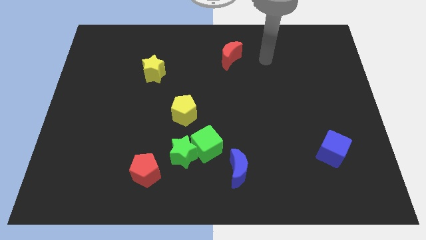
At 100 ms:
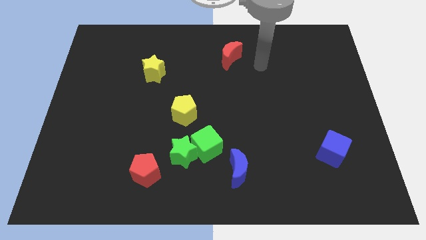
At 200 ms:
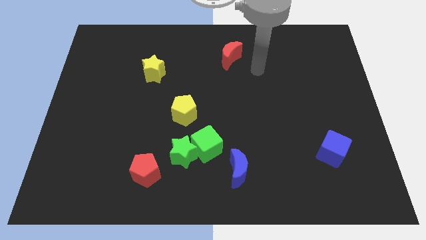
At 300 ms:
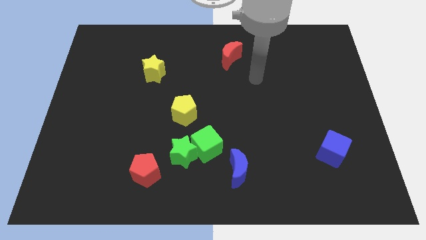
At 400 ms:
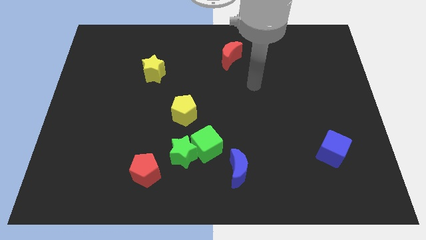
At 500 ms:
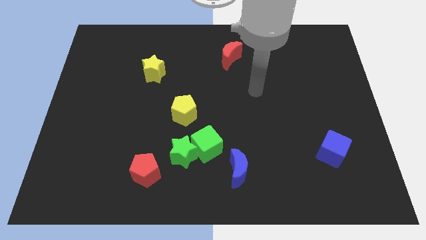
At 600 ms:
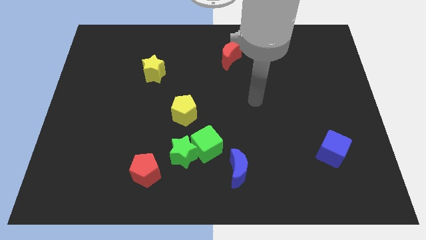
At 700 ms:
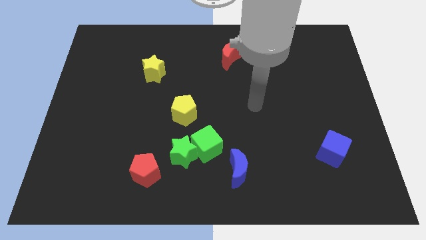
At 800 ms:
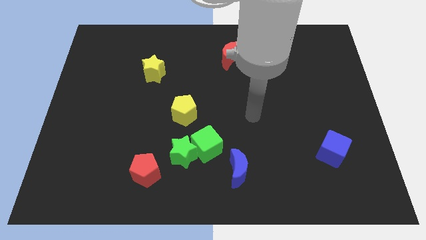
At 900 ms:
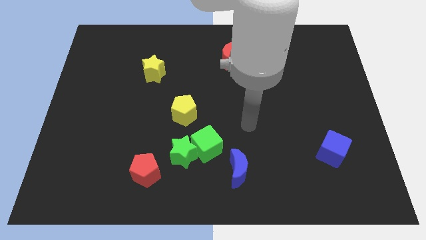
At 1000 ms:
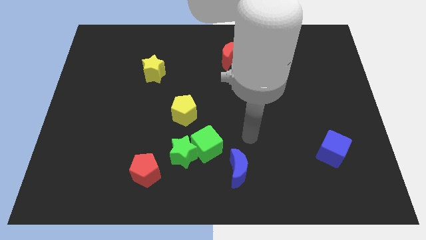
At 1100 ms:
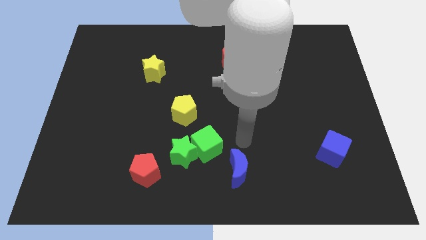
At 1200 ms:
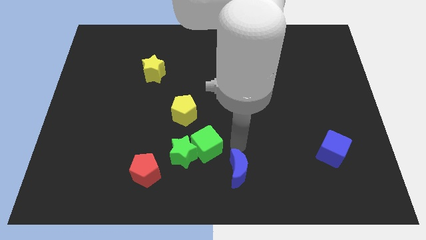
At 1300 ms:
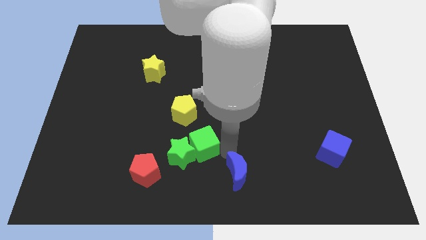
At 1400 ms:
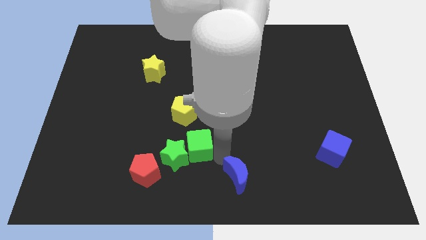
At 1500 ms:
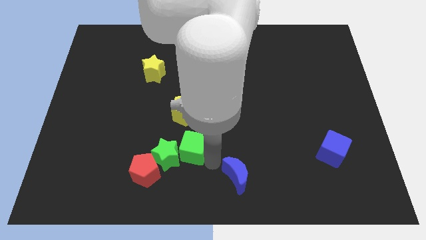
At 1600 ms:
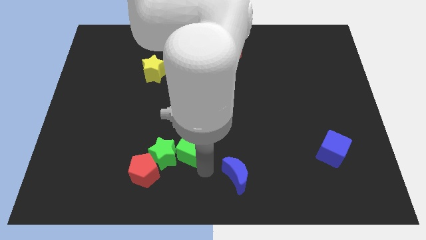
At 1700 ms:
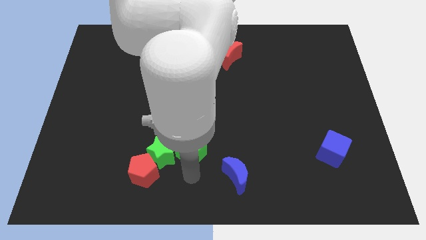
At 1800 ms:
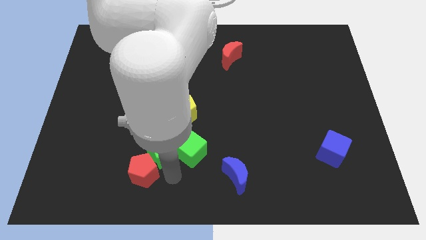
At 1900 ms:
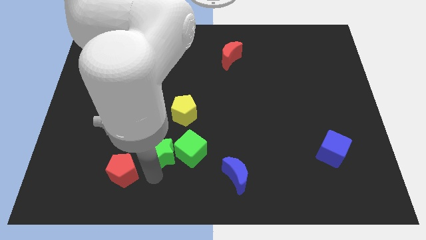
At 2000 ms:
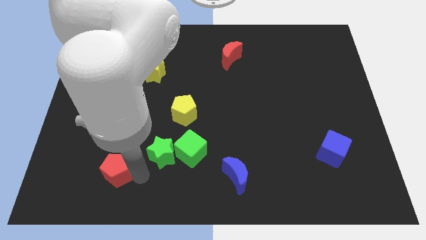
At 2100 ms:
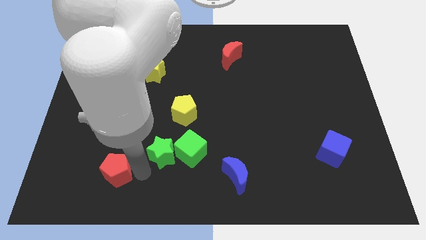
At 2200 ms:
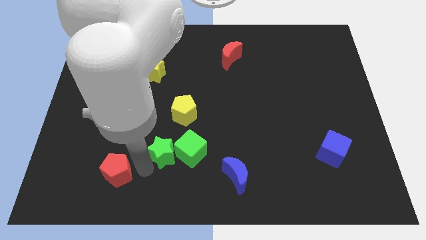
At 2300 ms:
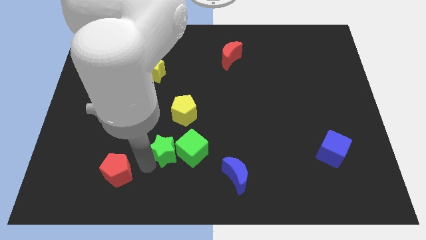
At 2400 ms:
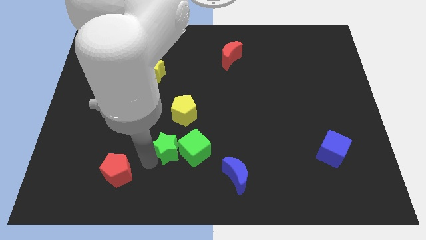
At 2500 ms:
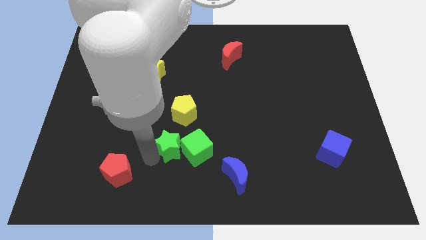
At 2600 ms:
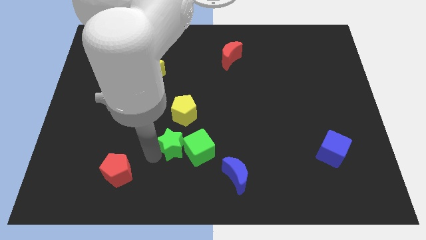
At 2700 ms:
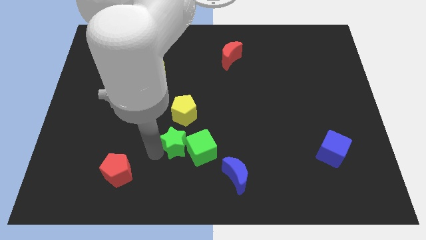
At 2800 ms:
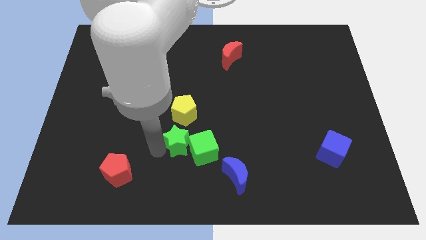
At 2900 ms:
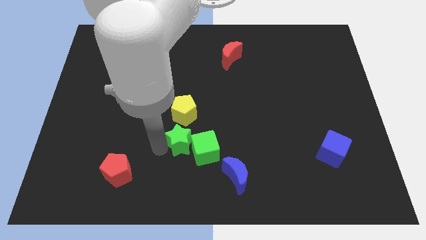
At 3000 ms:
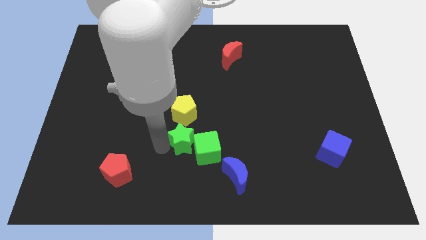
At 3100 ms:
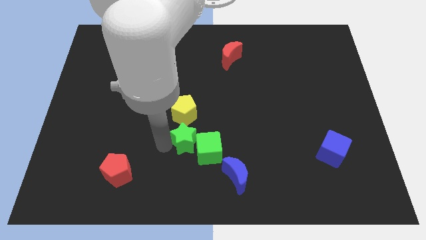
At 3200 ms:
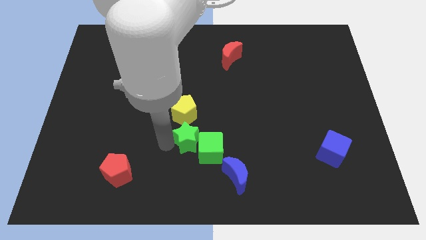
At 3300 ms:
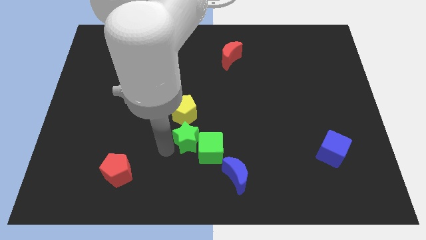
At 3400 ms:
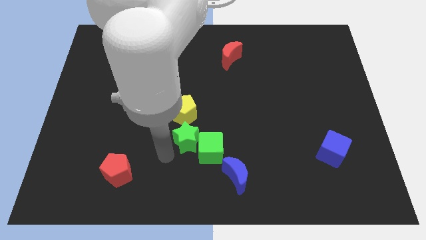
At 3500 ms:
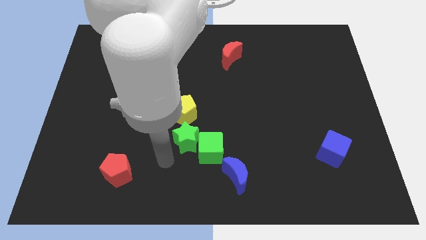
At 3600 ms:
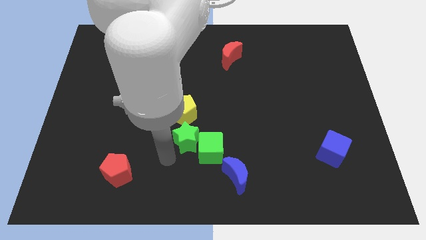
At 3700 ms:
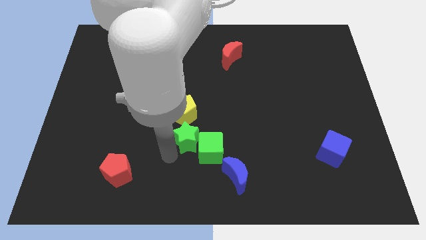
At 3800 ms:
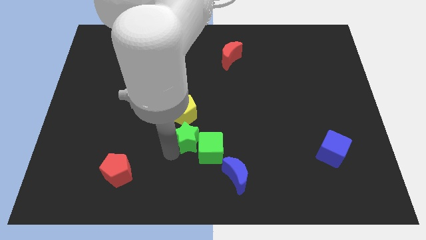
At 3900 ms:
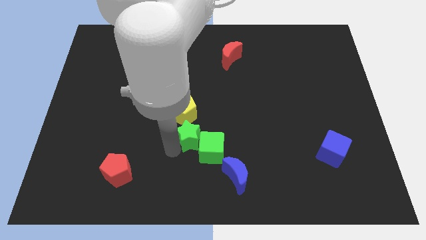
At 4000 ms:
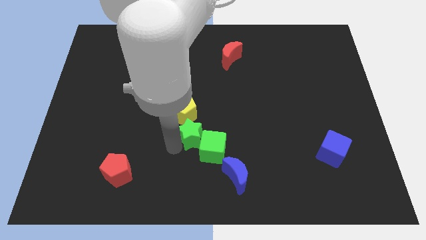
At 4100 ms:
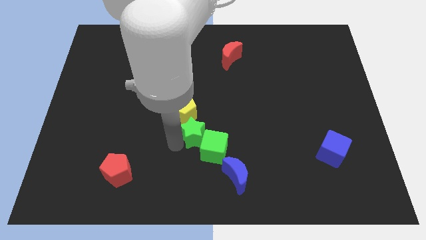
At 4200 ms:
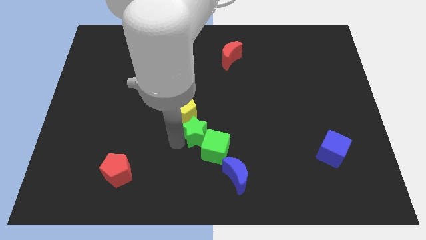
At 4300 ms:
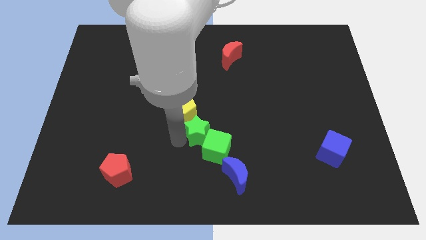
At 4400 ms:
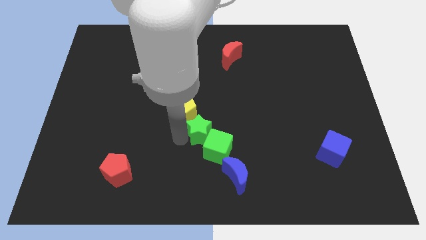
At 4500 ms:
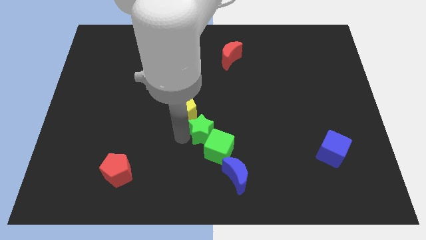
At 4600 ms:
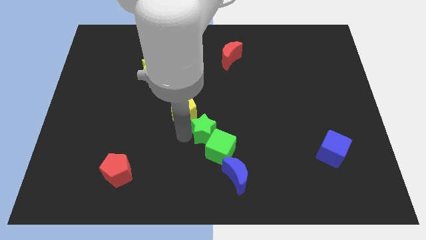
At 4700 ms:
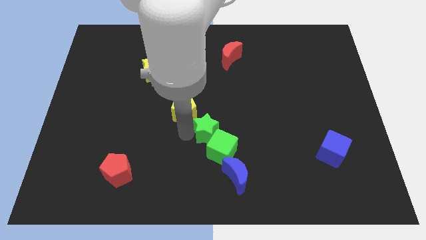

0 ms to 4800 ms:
separate the green star from the green cube and red pentagon

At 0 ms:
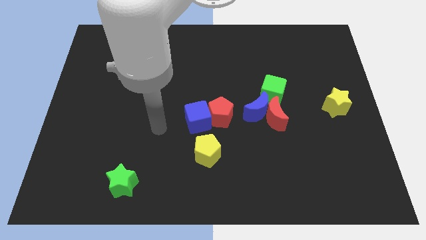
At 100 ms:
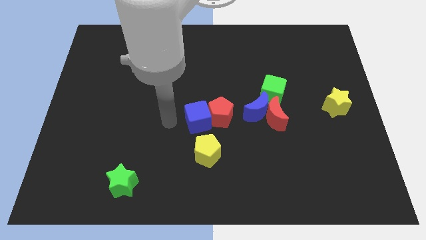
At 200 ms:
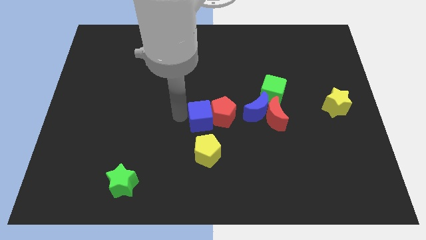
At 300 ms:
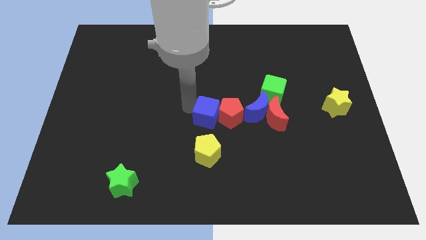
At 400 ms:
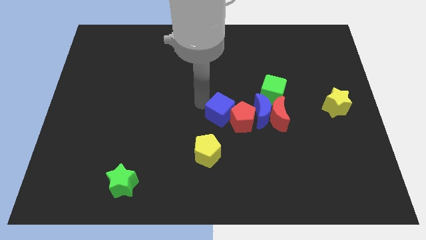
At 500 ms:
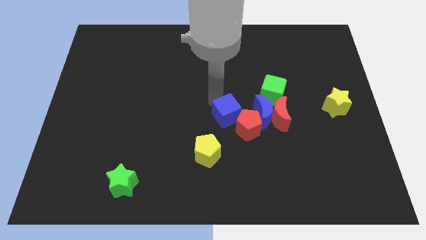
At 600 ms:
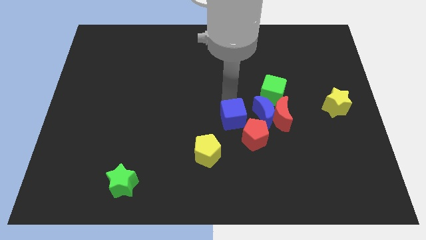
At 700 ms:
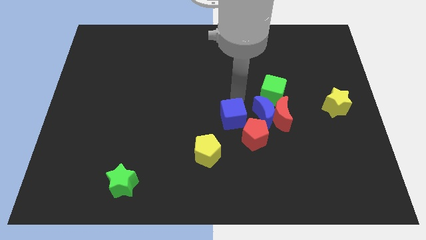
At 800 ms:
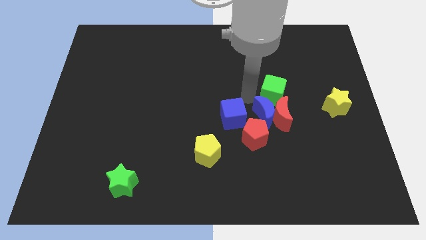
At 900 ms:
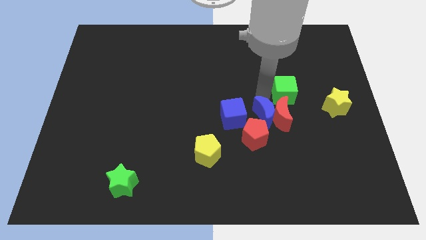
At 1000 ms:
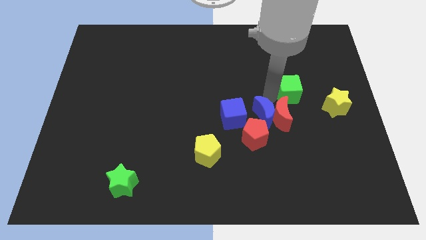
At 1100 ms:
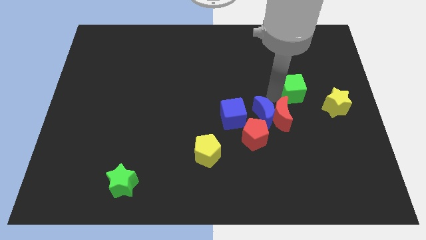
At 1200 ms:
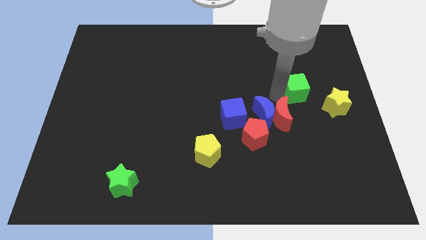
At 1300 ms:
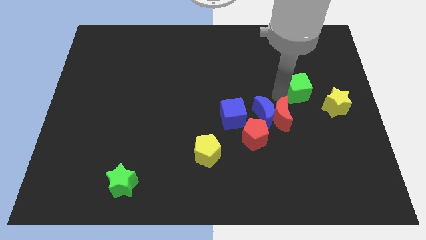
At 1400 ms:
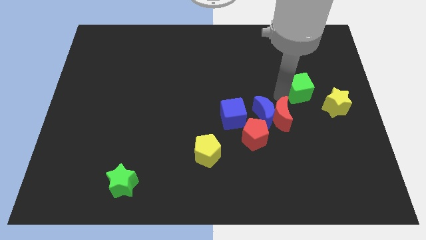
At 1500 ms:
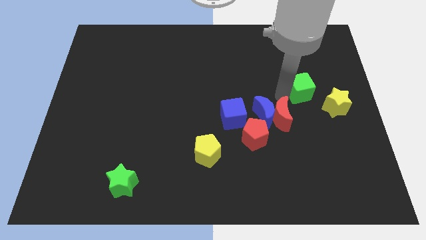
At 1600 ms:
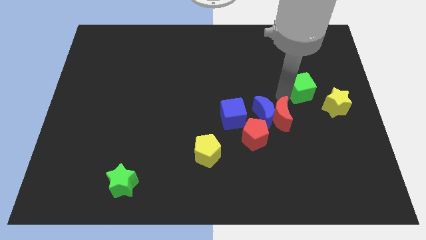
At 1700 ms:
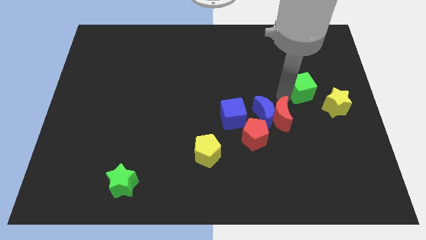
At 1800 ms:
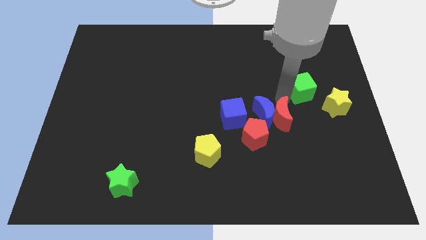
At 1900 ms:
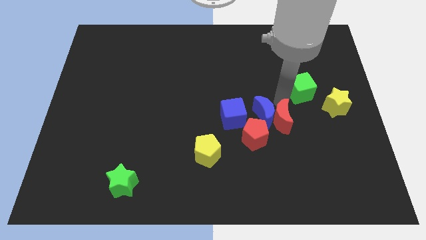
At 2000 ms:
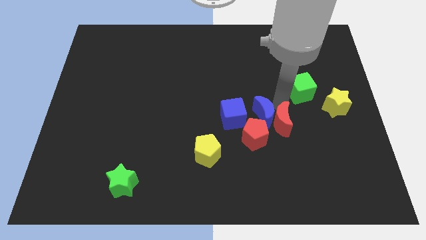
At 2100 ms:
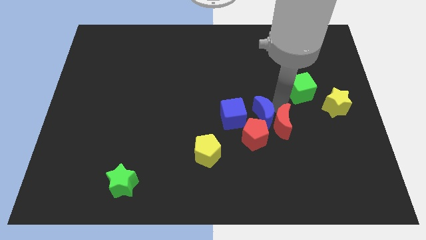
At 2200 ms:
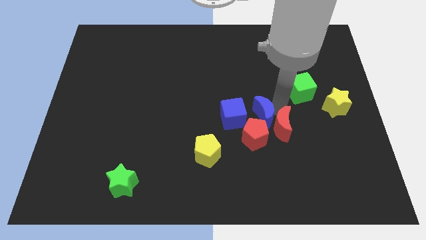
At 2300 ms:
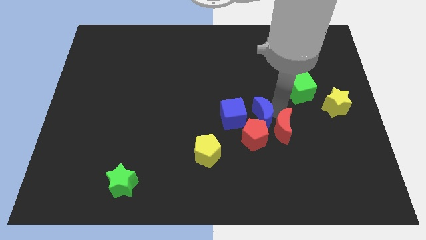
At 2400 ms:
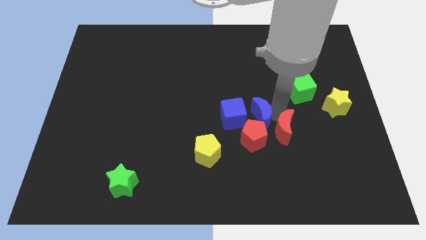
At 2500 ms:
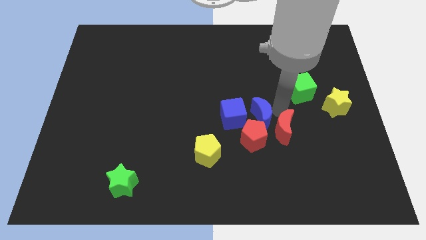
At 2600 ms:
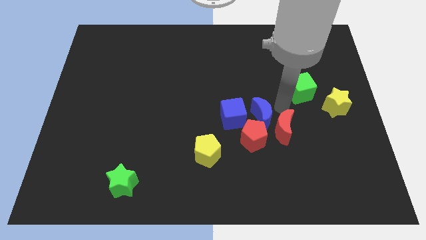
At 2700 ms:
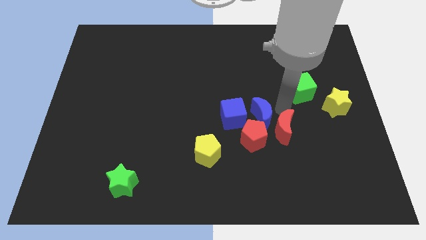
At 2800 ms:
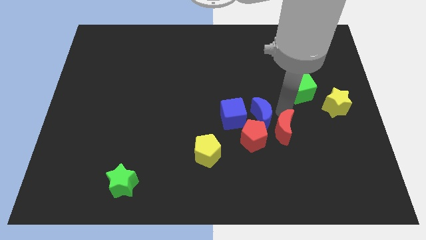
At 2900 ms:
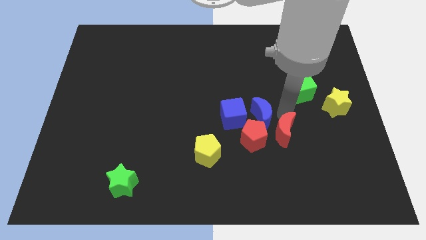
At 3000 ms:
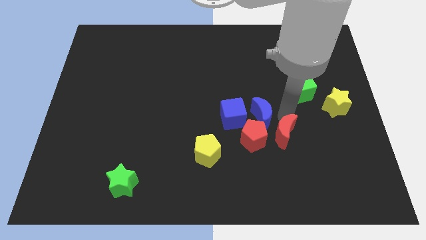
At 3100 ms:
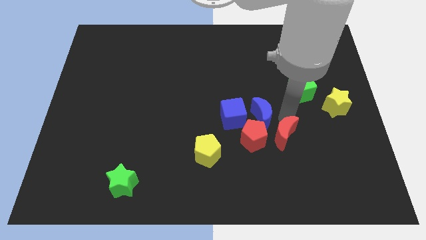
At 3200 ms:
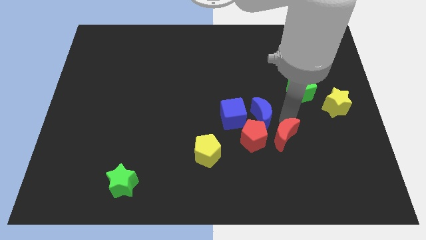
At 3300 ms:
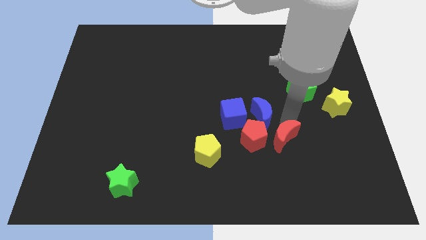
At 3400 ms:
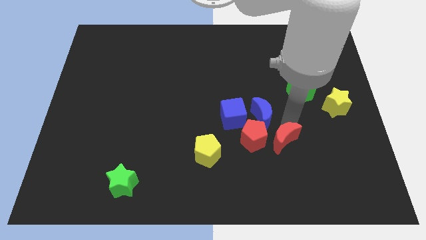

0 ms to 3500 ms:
pull the red moon apart from the blue moon and green cube

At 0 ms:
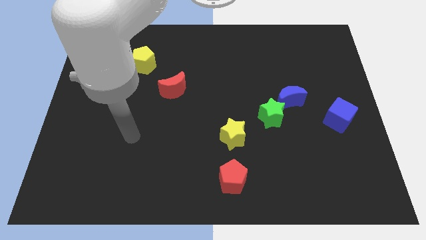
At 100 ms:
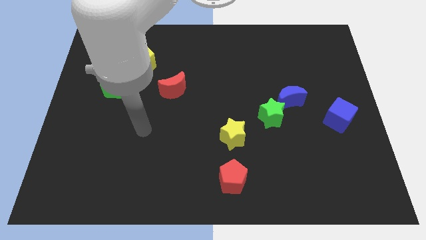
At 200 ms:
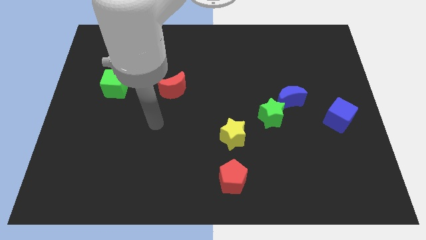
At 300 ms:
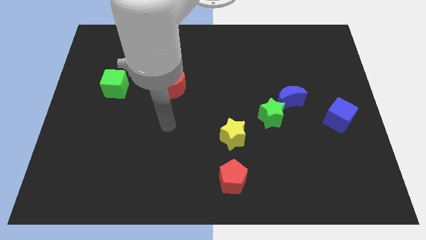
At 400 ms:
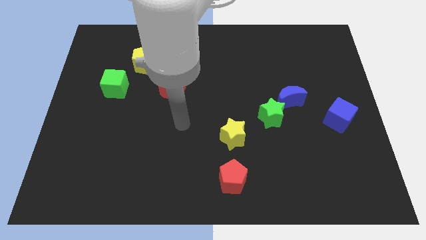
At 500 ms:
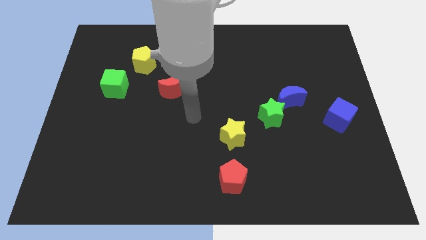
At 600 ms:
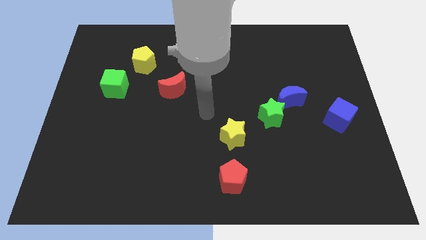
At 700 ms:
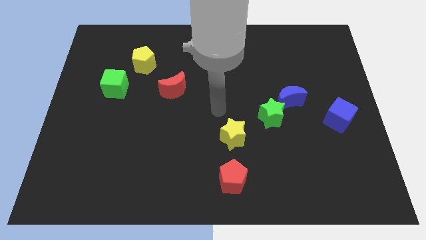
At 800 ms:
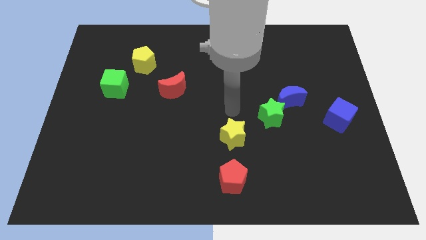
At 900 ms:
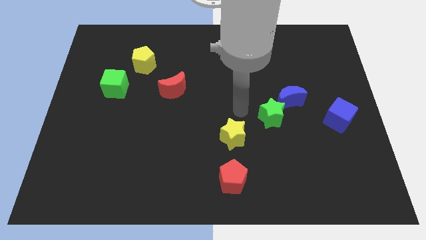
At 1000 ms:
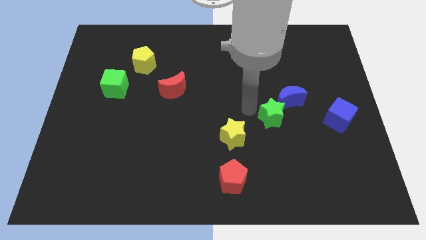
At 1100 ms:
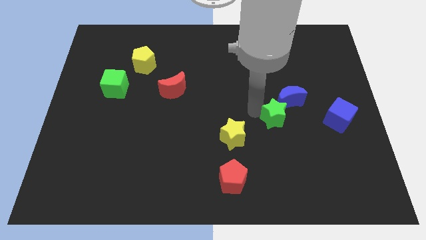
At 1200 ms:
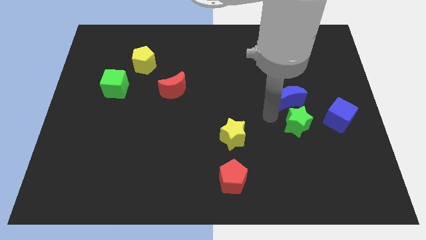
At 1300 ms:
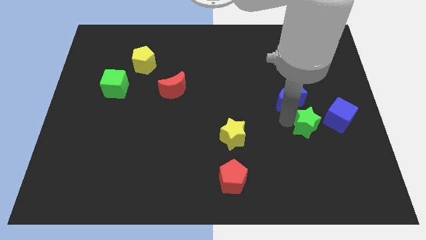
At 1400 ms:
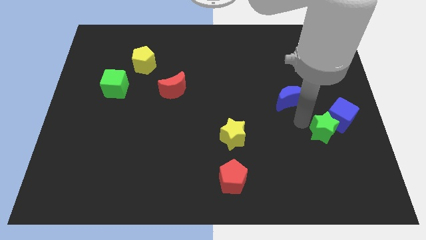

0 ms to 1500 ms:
move the blue moon away from the green star
